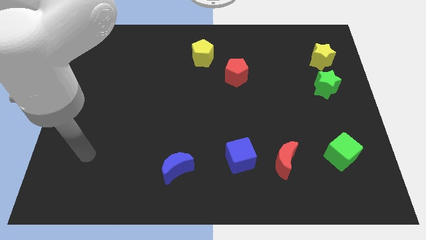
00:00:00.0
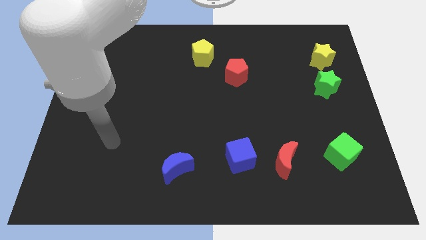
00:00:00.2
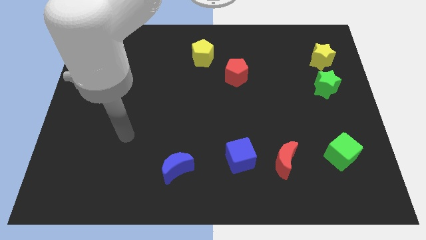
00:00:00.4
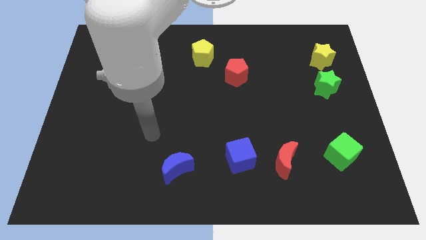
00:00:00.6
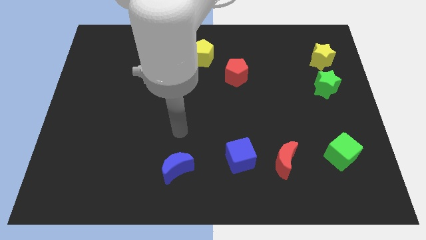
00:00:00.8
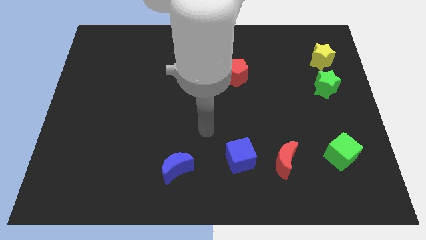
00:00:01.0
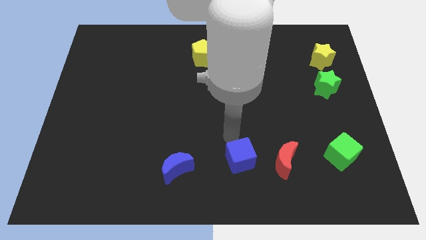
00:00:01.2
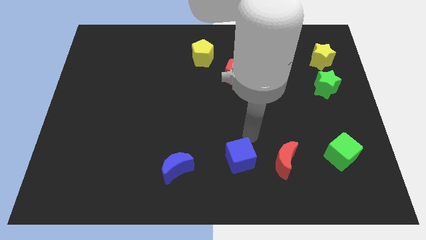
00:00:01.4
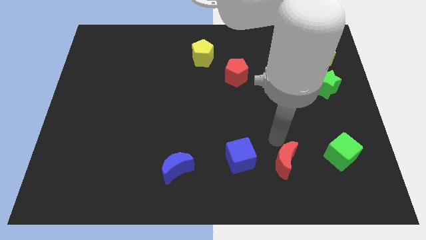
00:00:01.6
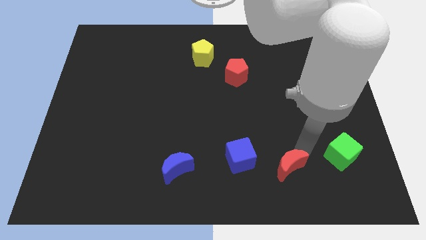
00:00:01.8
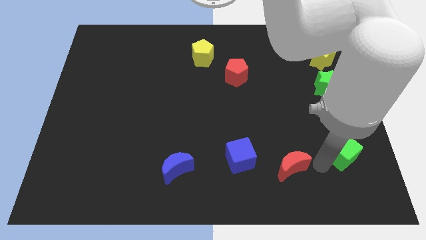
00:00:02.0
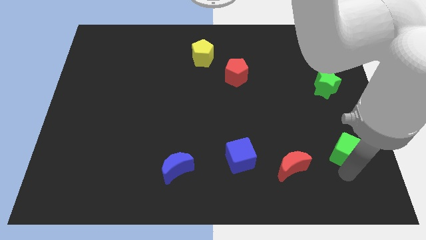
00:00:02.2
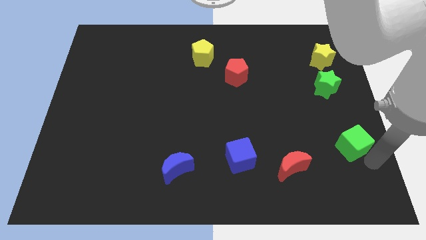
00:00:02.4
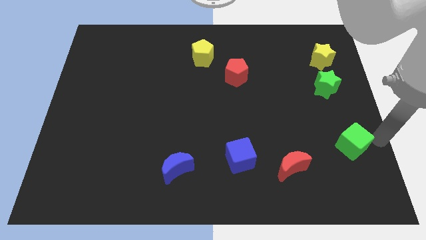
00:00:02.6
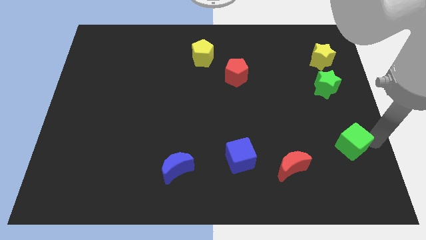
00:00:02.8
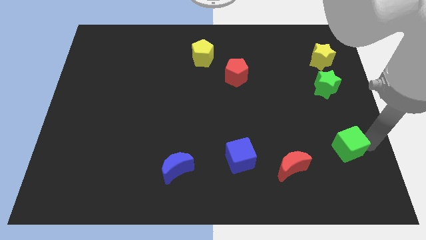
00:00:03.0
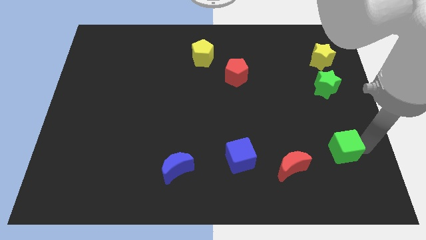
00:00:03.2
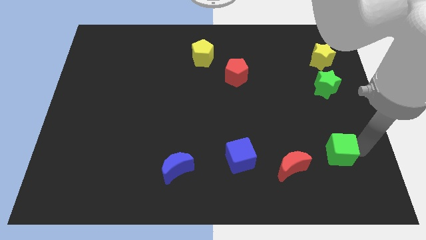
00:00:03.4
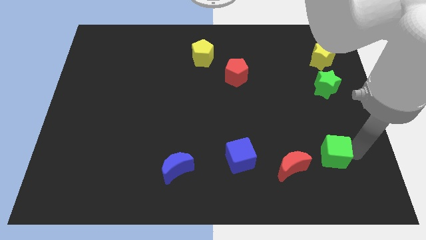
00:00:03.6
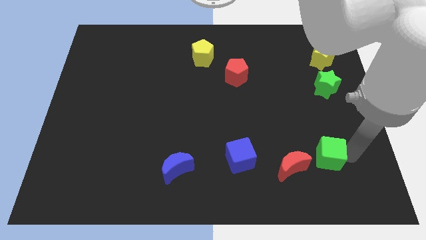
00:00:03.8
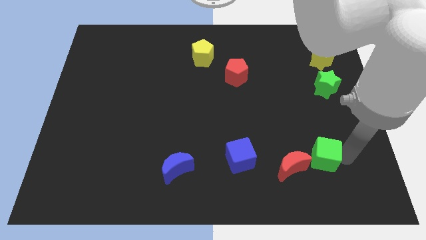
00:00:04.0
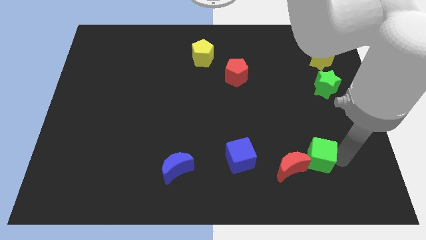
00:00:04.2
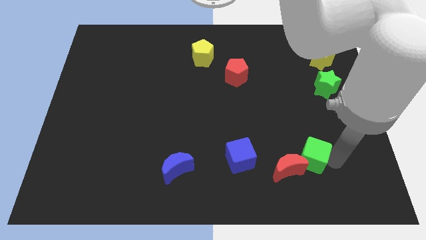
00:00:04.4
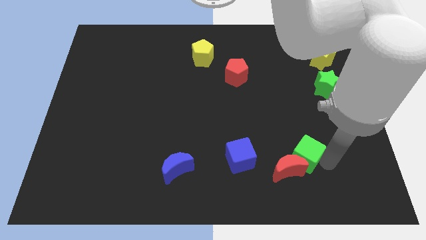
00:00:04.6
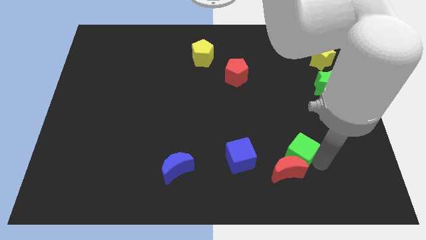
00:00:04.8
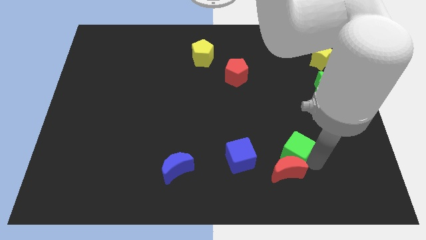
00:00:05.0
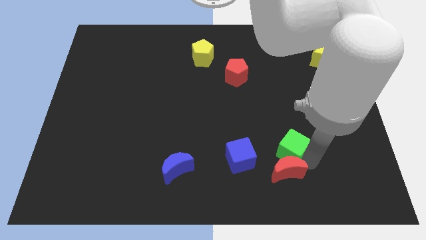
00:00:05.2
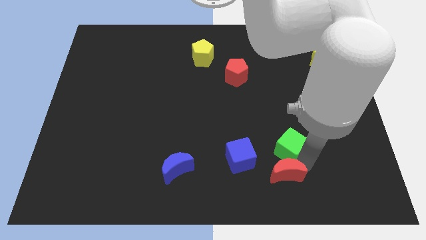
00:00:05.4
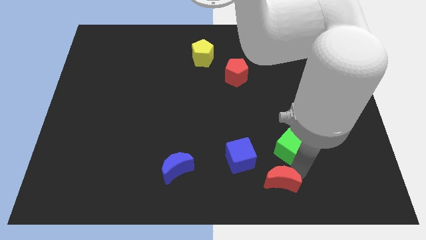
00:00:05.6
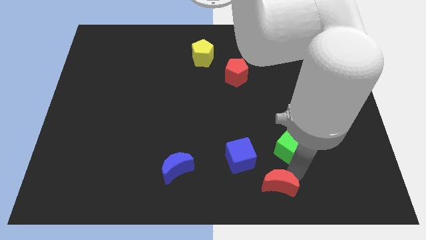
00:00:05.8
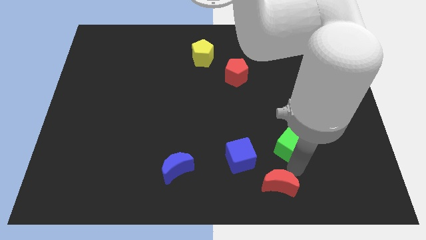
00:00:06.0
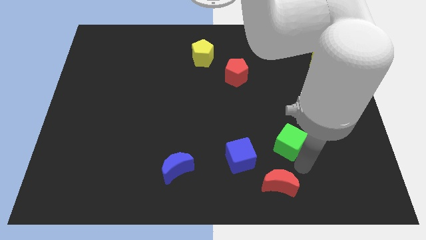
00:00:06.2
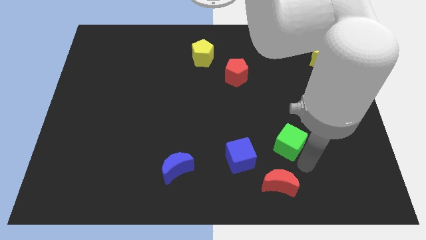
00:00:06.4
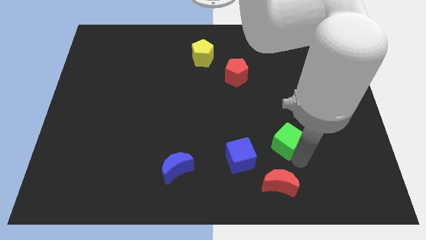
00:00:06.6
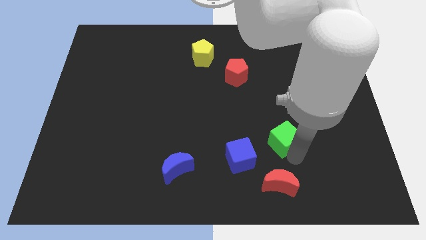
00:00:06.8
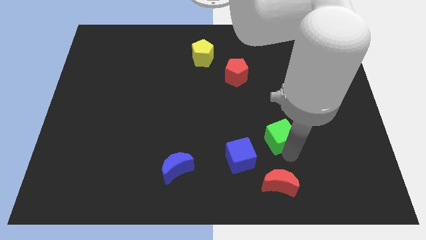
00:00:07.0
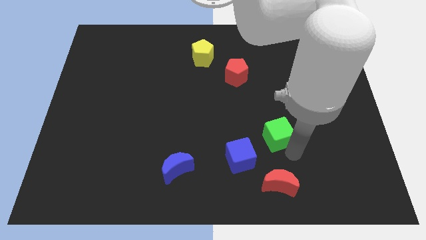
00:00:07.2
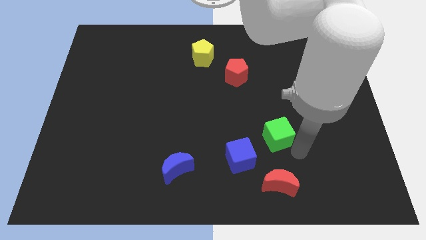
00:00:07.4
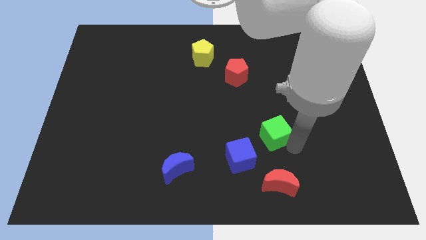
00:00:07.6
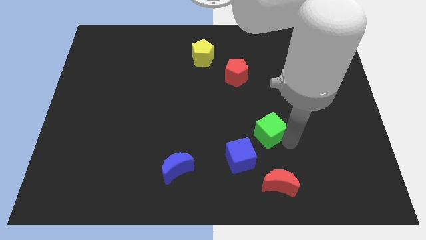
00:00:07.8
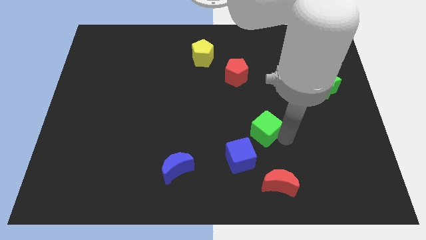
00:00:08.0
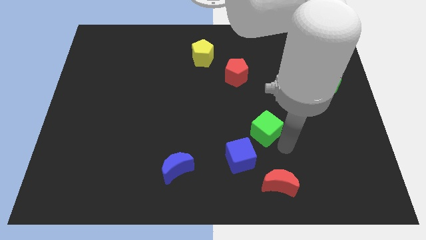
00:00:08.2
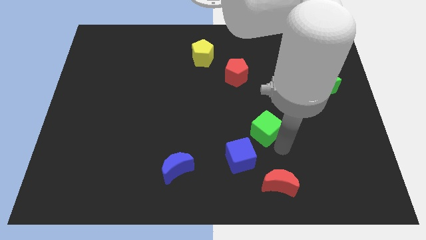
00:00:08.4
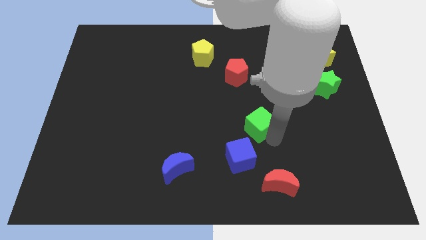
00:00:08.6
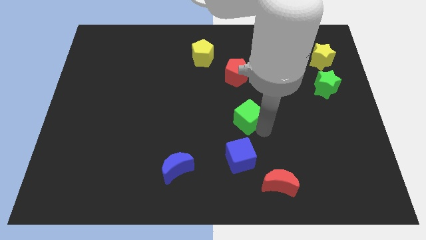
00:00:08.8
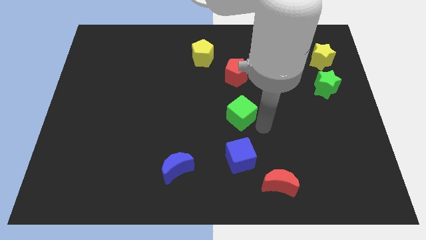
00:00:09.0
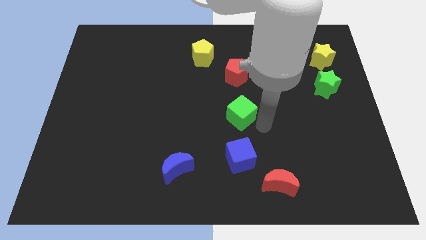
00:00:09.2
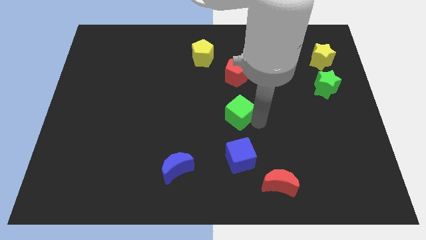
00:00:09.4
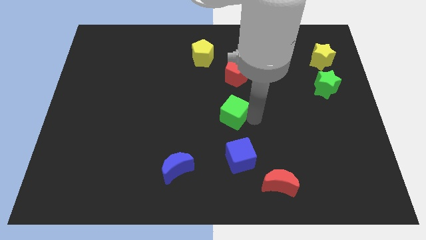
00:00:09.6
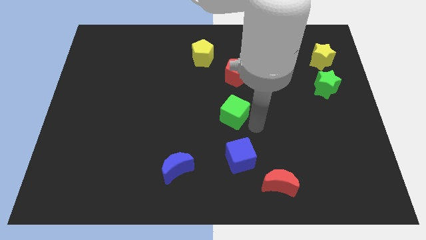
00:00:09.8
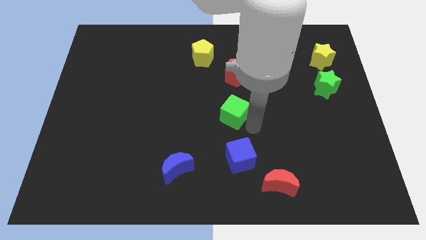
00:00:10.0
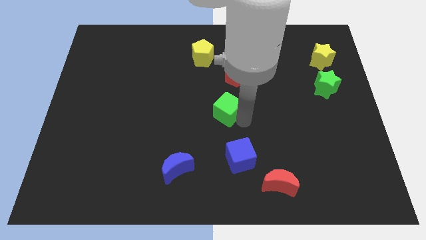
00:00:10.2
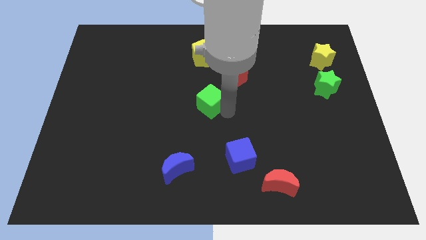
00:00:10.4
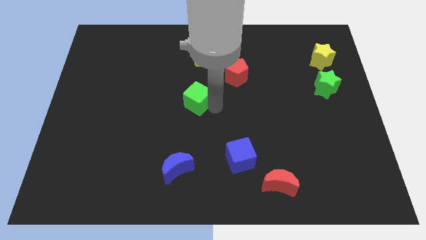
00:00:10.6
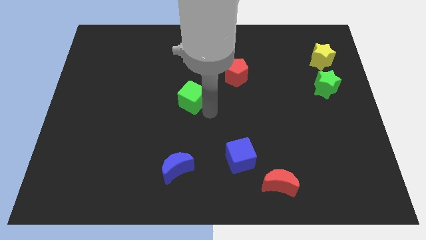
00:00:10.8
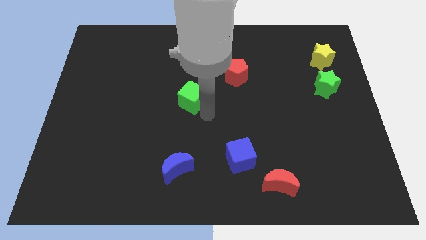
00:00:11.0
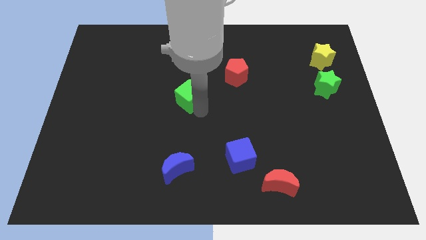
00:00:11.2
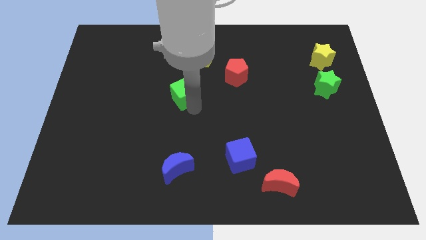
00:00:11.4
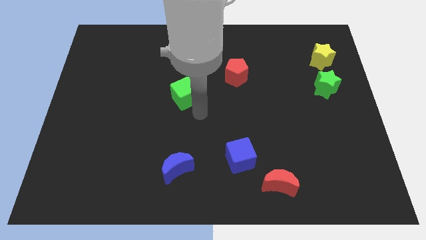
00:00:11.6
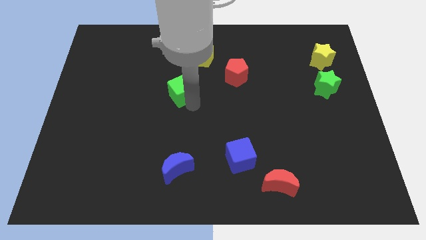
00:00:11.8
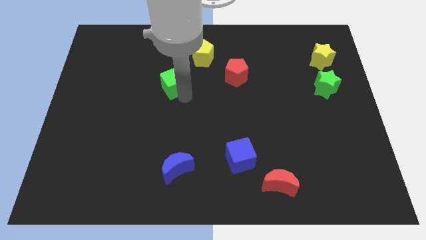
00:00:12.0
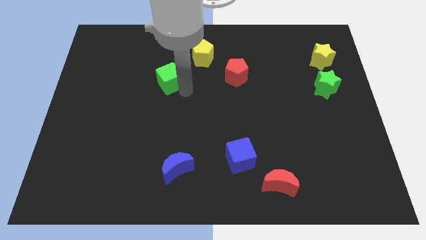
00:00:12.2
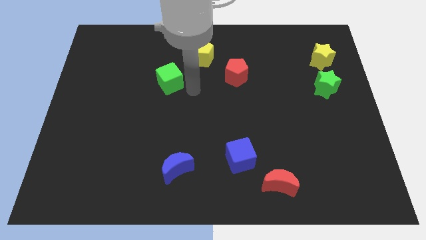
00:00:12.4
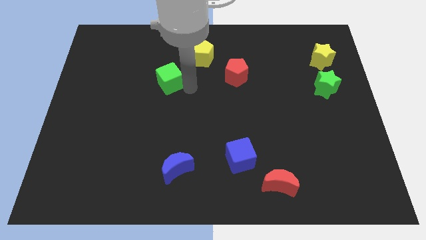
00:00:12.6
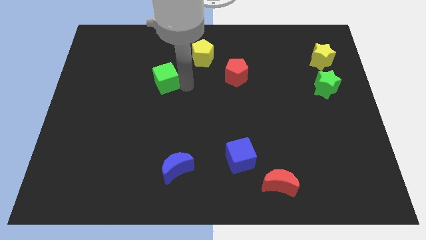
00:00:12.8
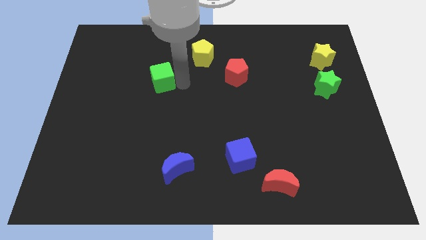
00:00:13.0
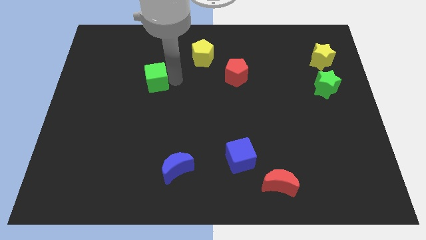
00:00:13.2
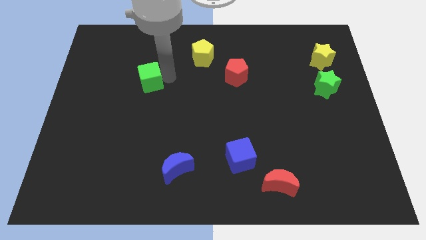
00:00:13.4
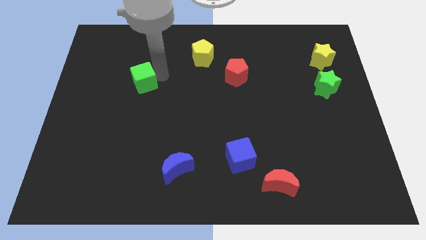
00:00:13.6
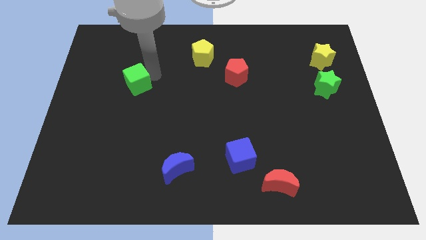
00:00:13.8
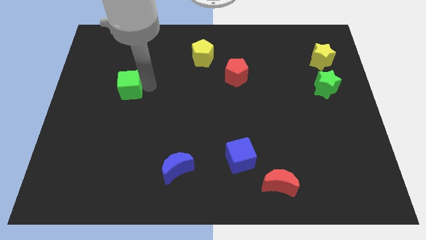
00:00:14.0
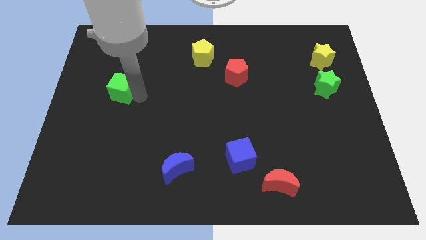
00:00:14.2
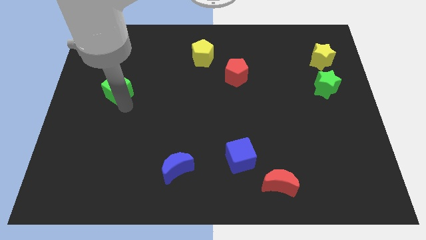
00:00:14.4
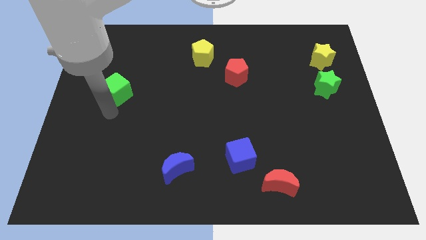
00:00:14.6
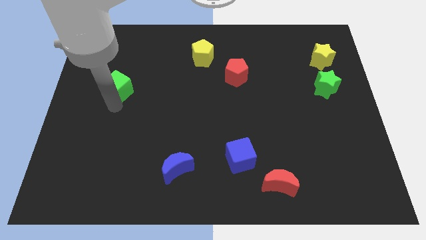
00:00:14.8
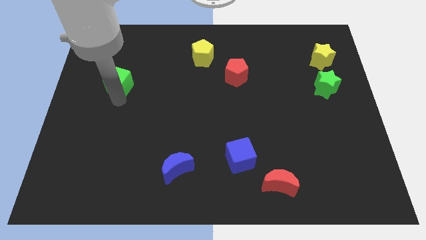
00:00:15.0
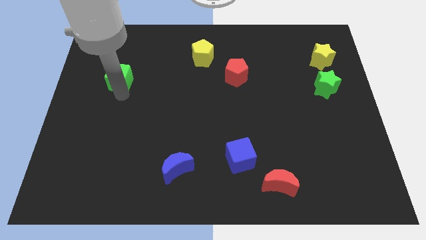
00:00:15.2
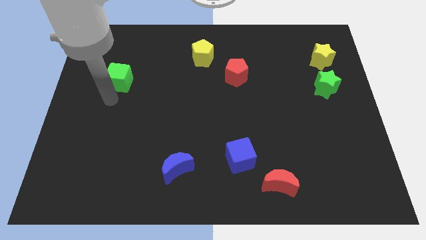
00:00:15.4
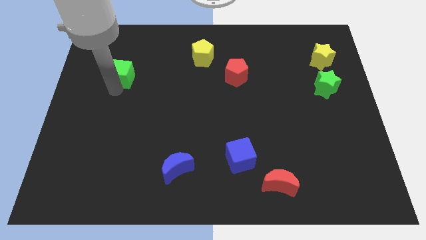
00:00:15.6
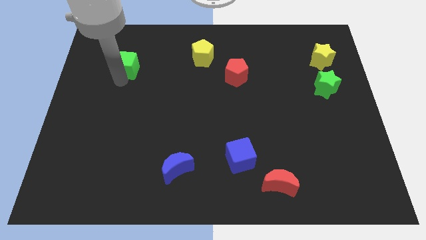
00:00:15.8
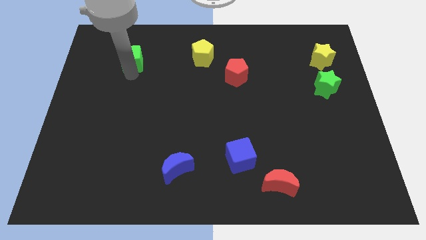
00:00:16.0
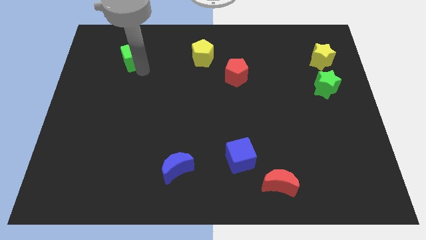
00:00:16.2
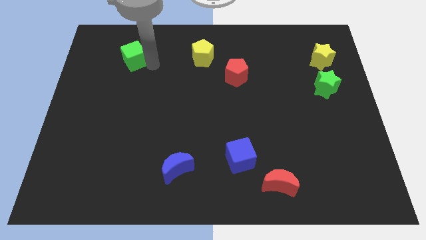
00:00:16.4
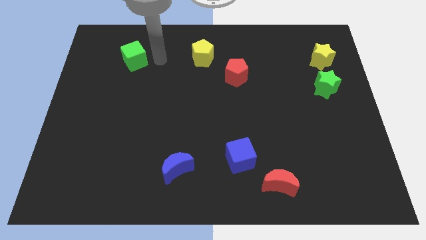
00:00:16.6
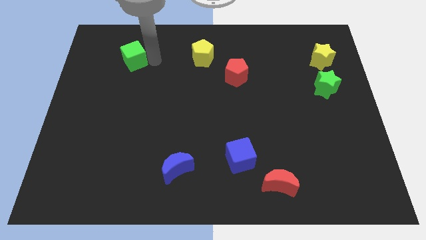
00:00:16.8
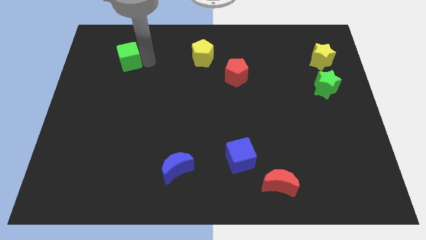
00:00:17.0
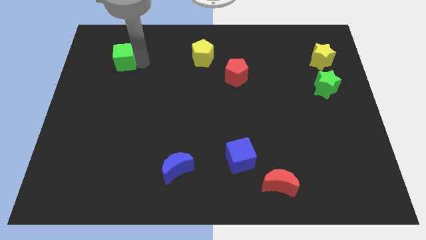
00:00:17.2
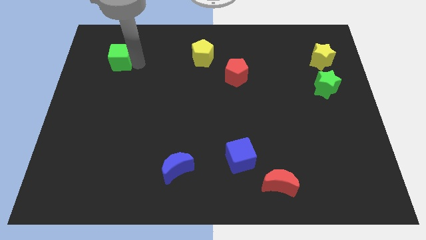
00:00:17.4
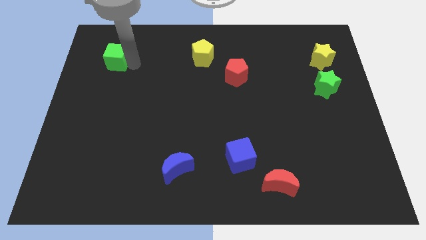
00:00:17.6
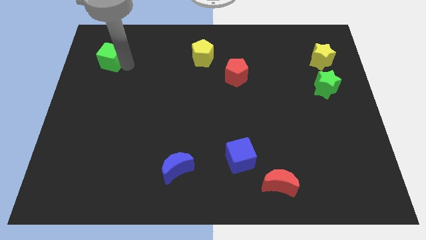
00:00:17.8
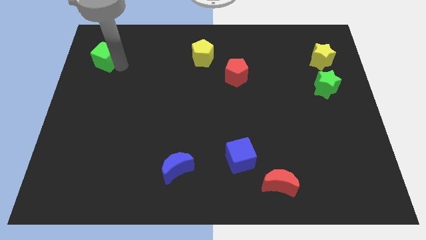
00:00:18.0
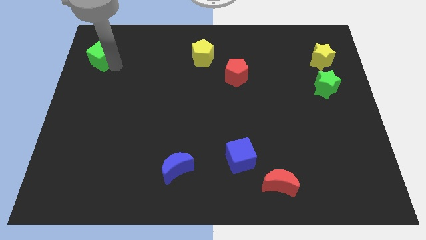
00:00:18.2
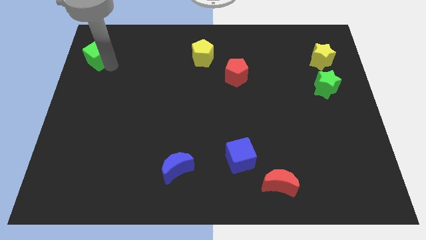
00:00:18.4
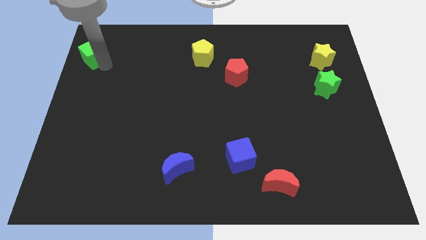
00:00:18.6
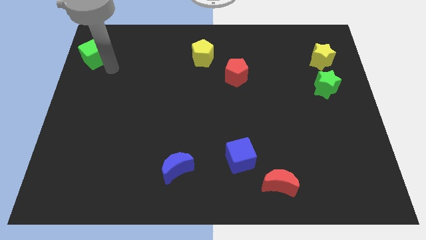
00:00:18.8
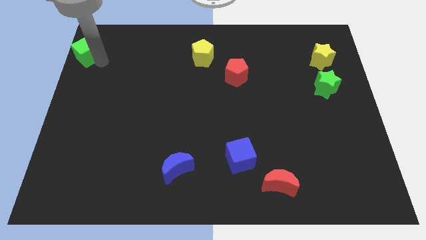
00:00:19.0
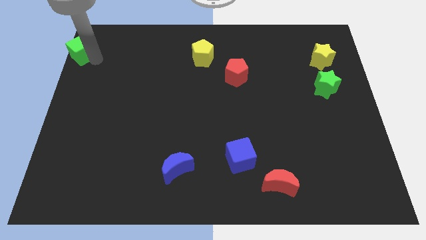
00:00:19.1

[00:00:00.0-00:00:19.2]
put the green cube to the top left corner
